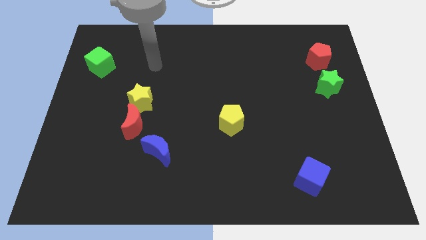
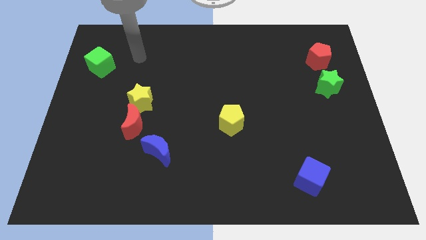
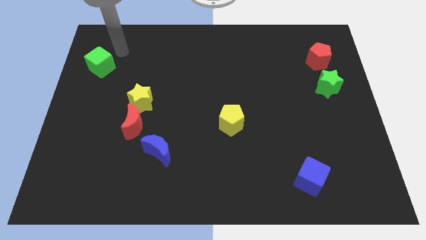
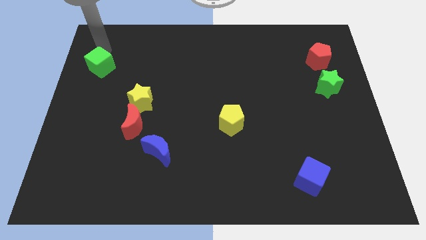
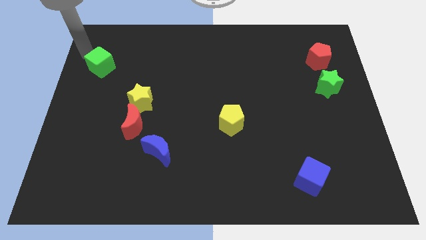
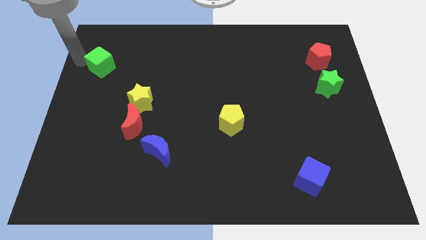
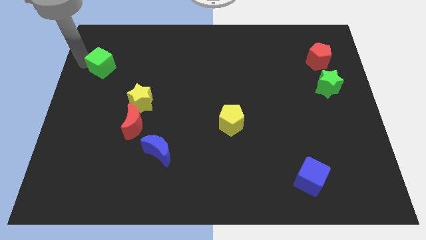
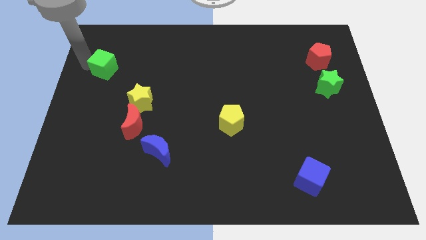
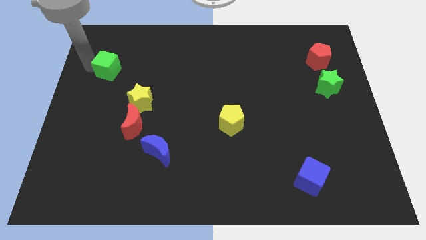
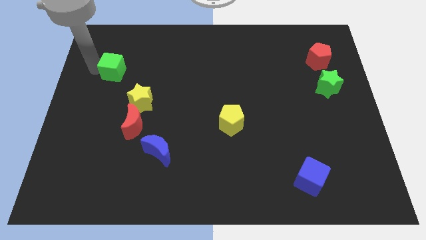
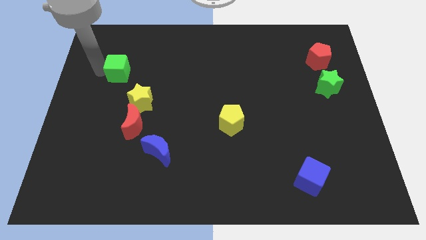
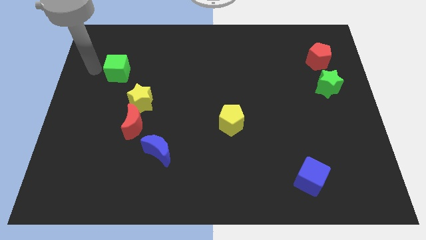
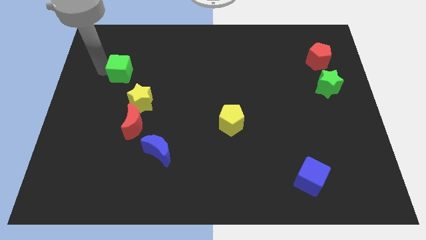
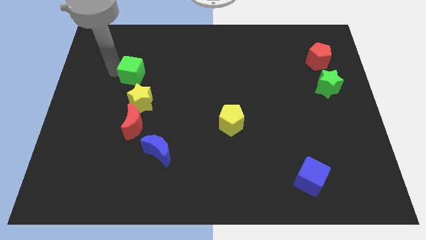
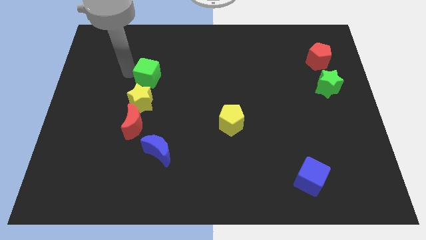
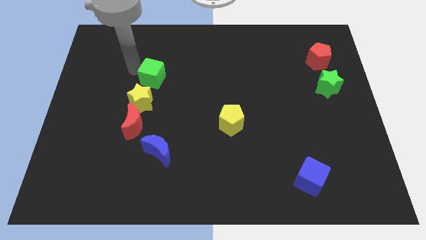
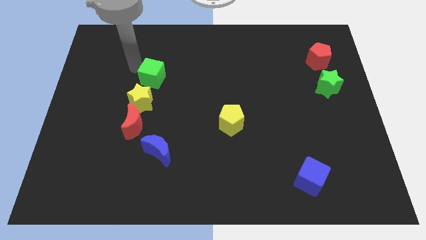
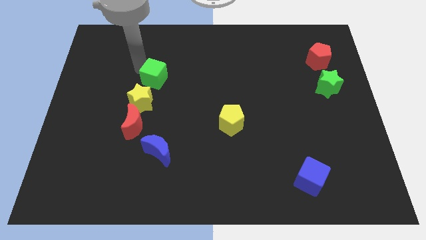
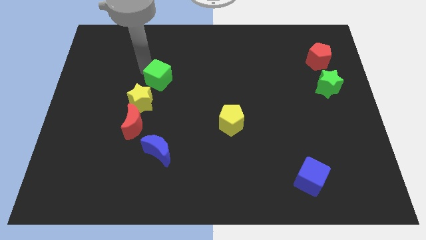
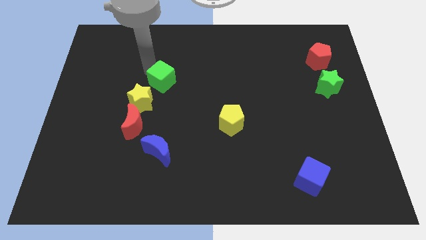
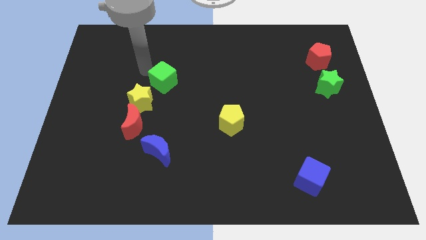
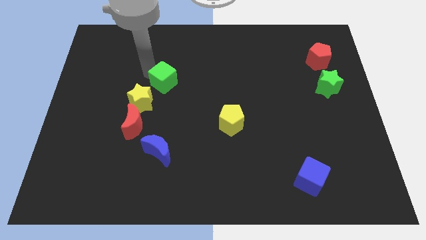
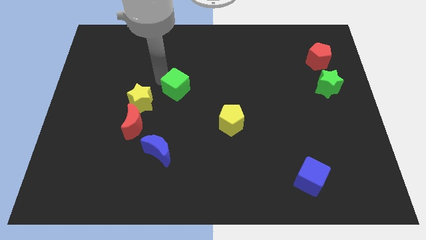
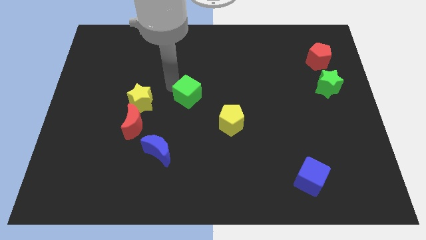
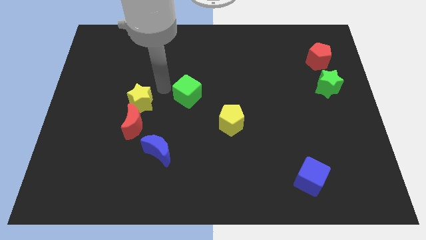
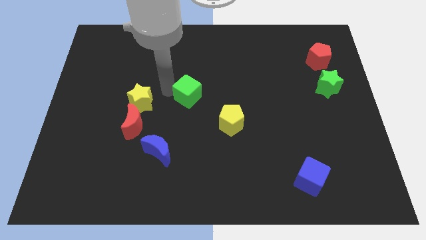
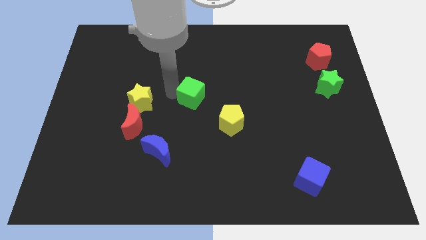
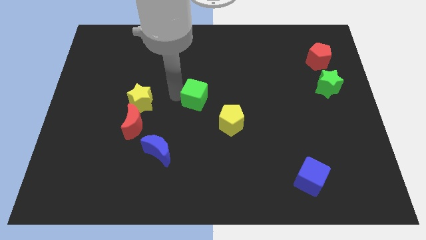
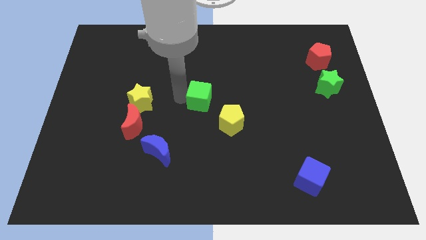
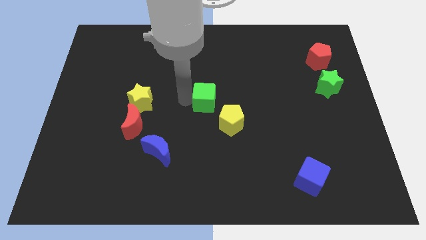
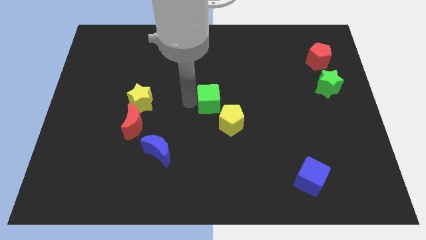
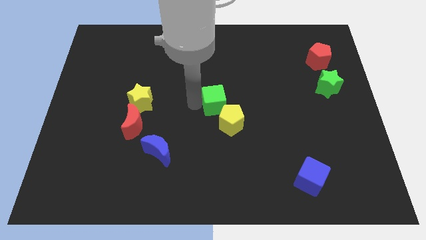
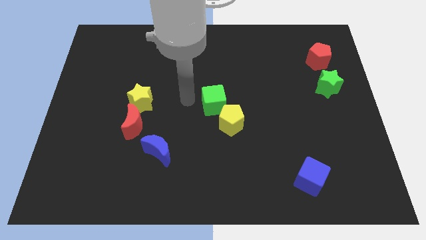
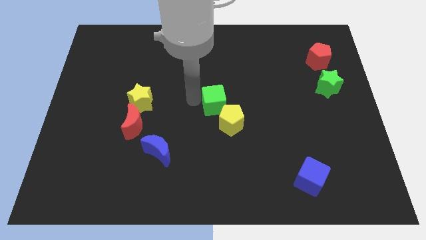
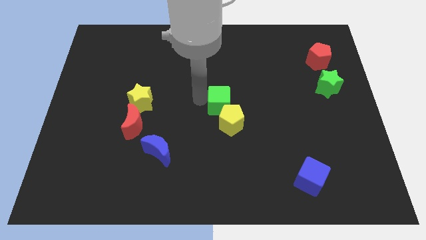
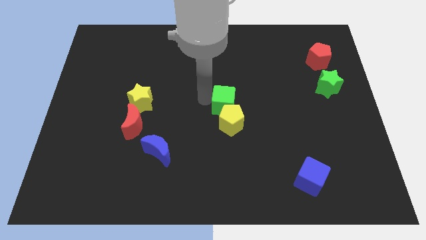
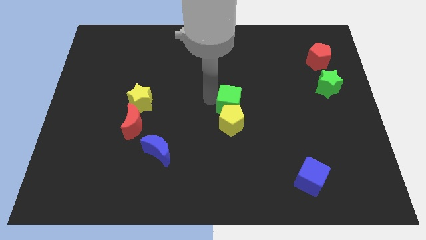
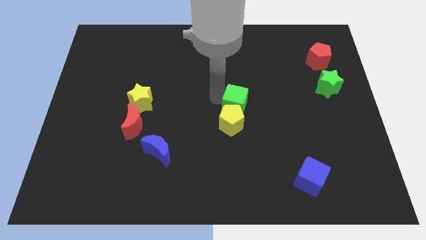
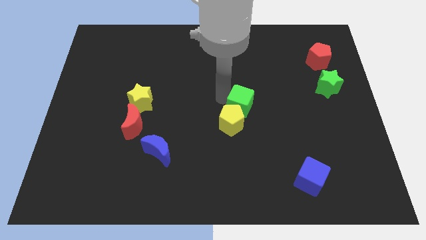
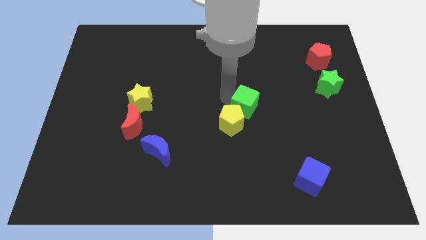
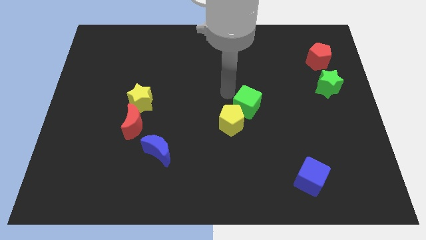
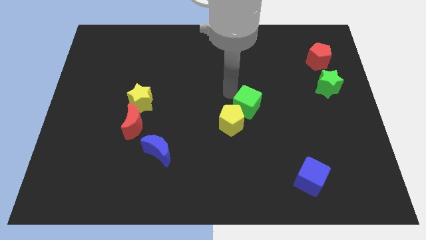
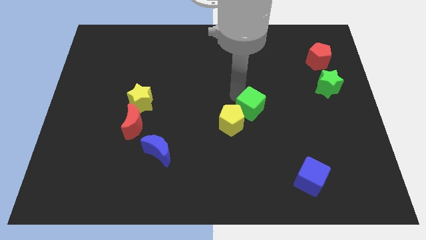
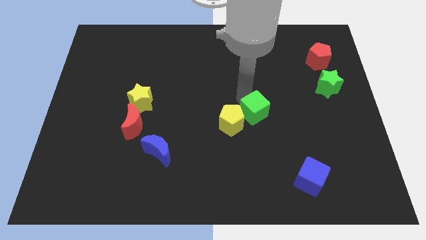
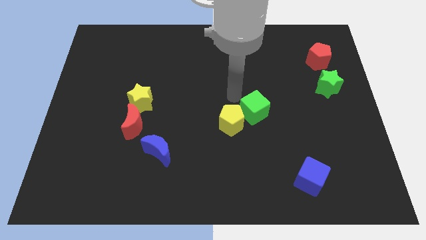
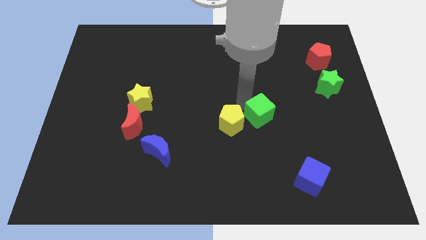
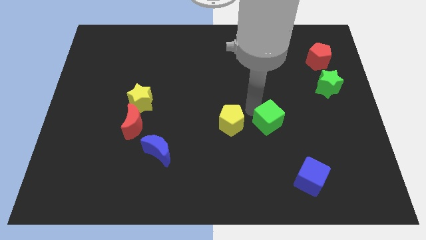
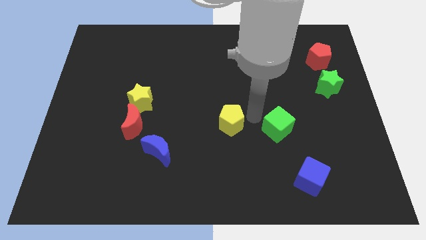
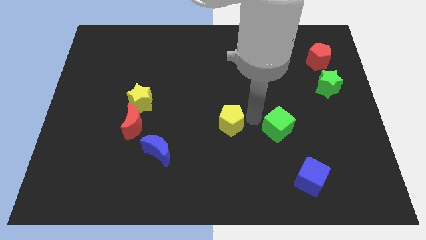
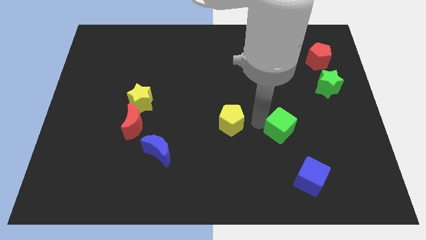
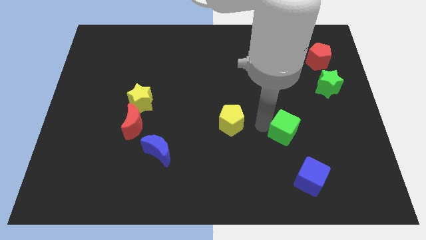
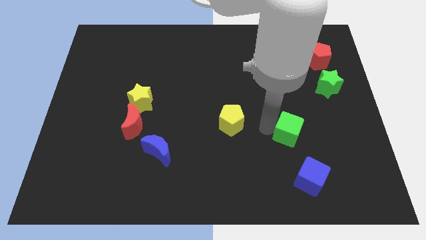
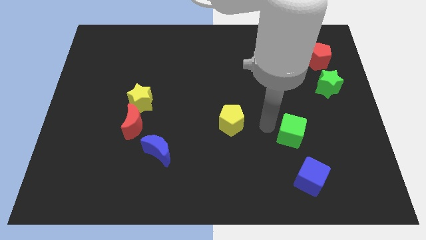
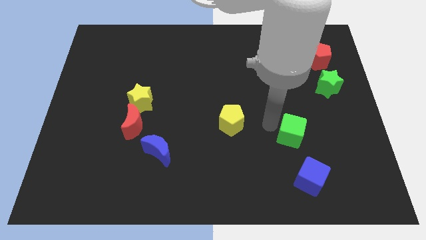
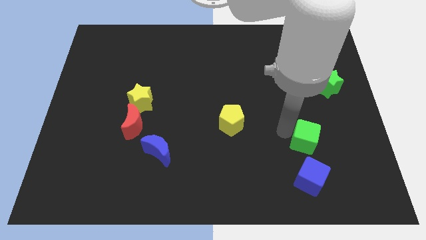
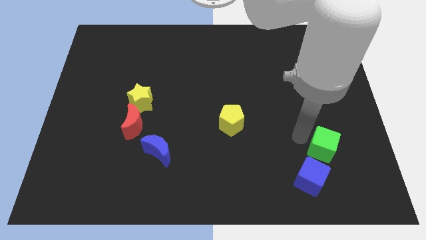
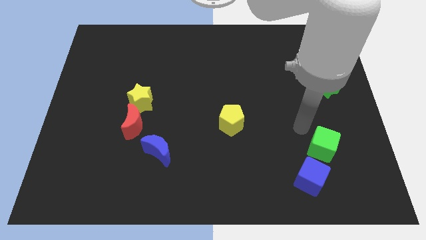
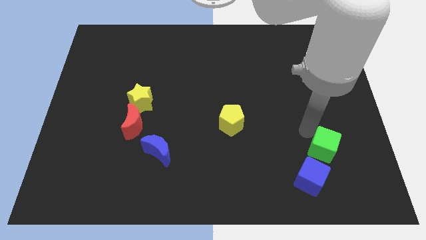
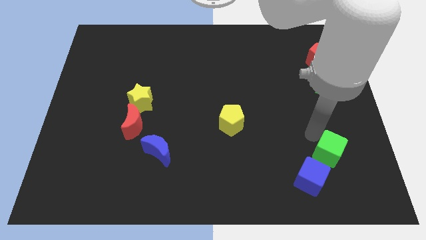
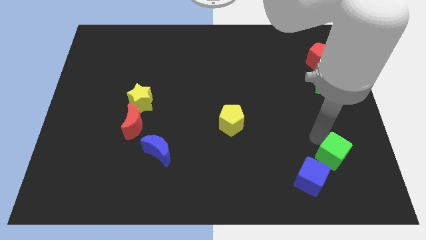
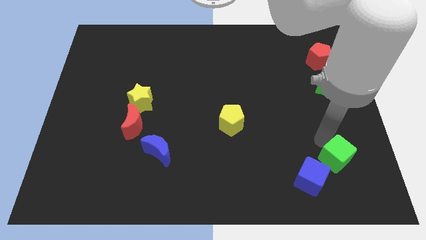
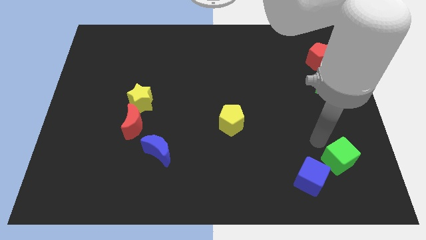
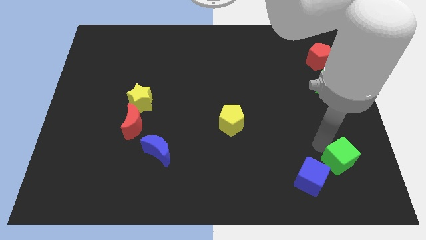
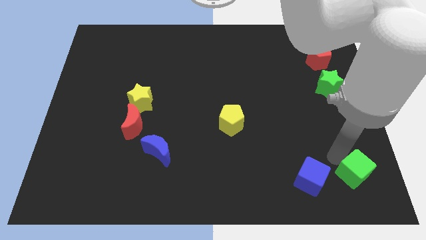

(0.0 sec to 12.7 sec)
push the green cube to the bottom right of the board

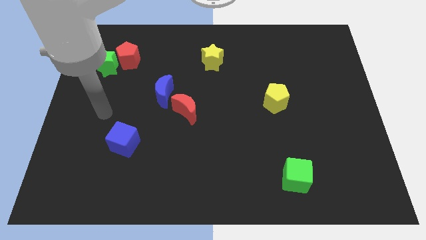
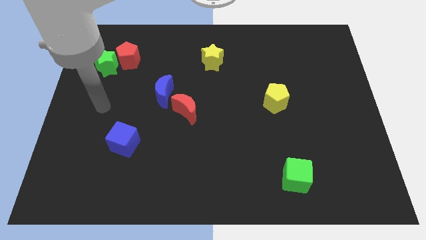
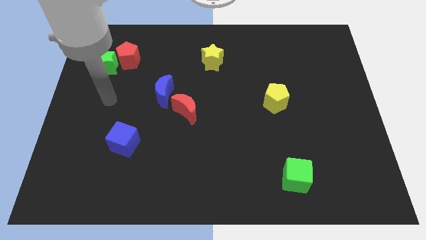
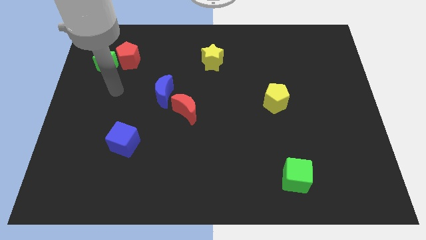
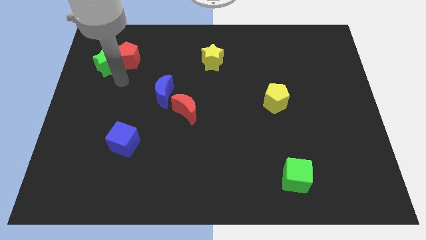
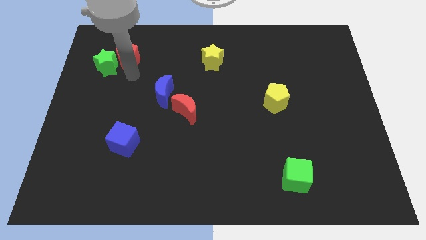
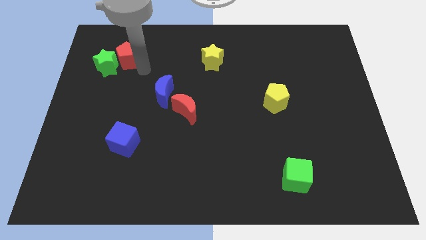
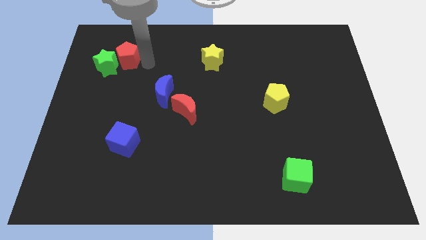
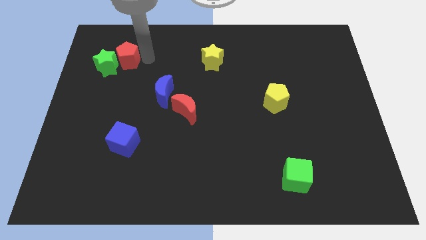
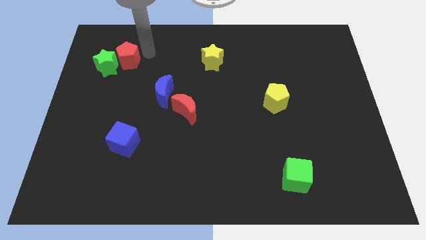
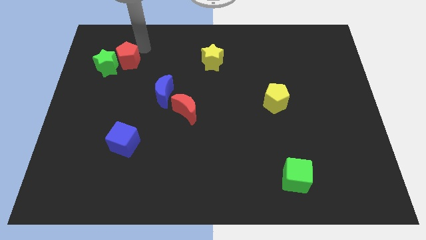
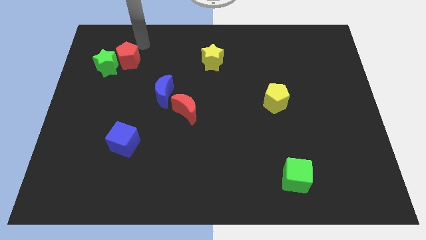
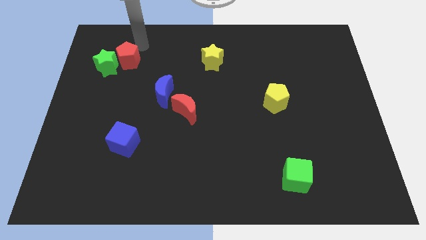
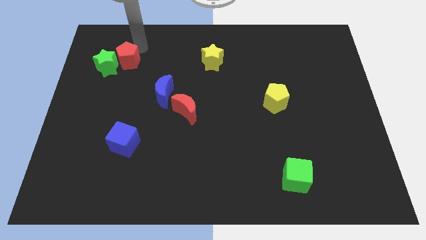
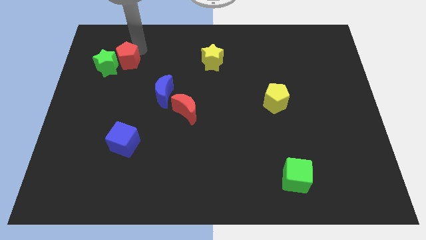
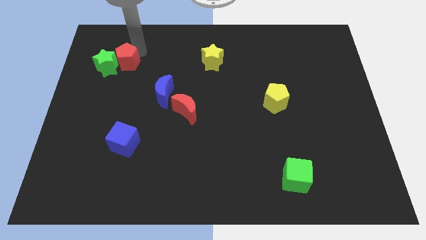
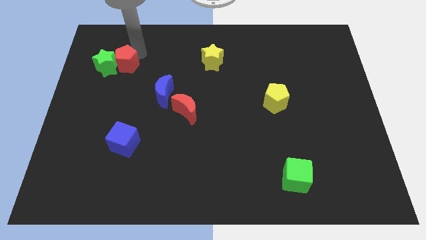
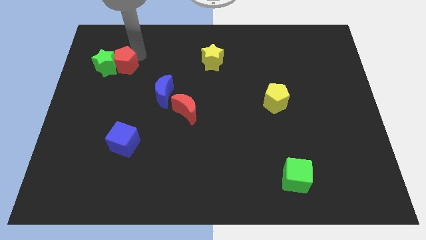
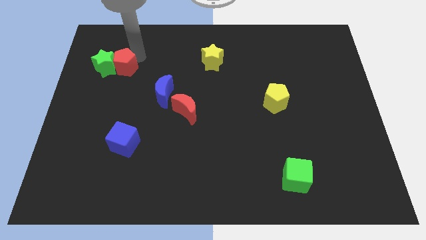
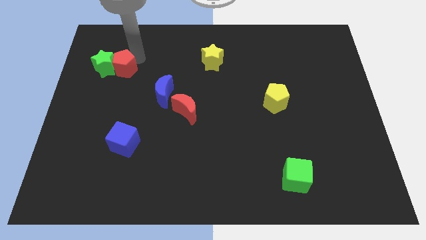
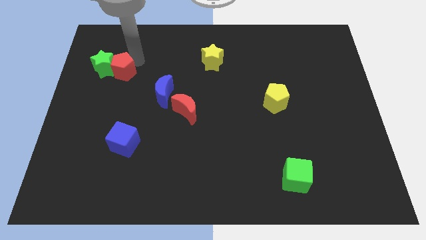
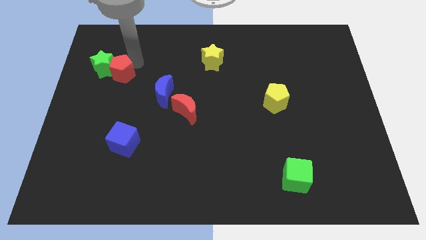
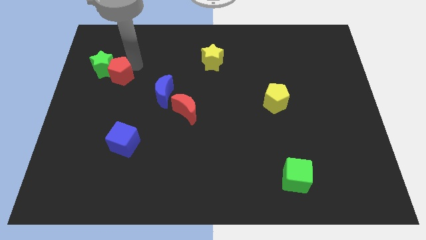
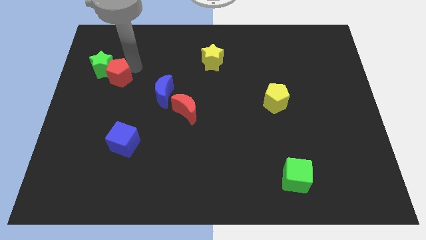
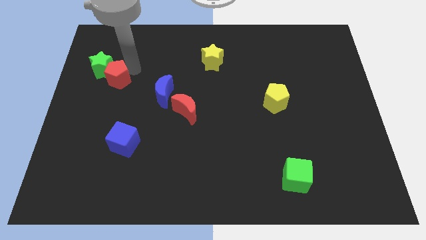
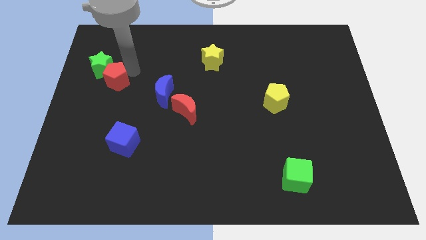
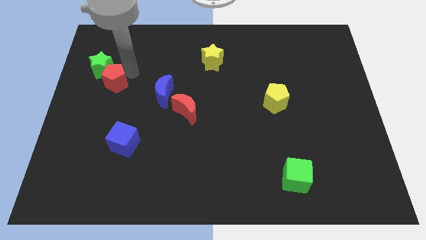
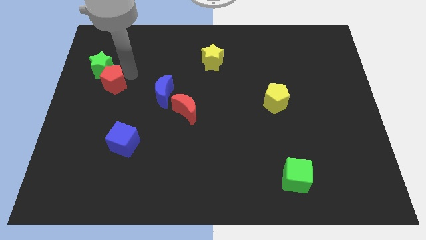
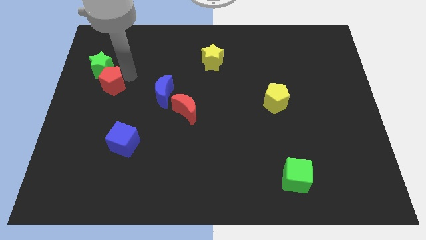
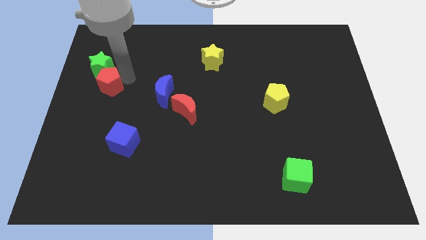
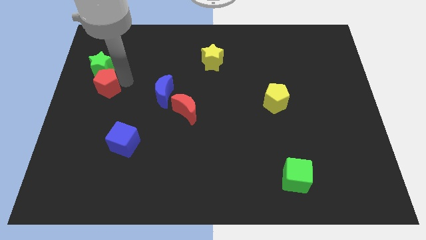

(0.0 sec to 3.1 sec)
move the red pentagon to the left side of the board
